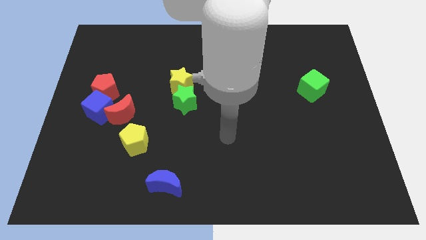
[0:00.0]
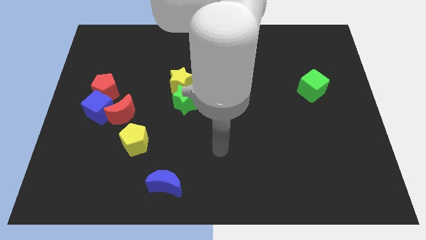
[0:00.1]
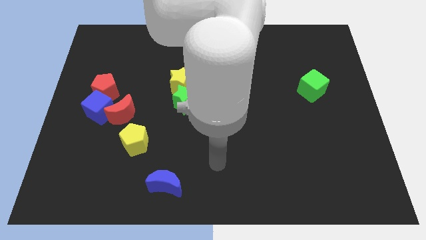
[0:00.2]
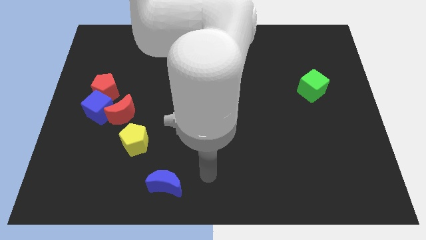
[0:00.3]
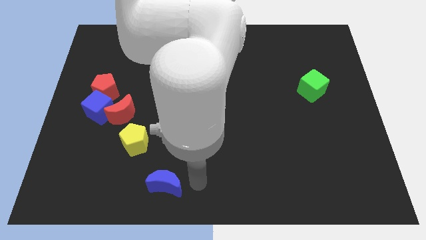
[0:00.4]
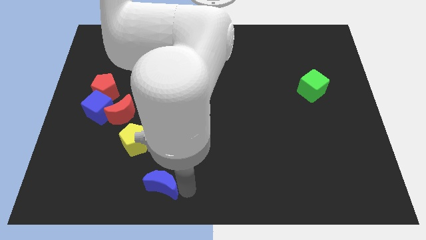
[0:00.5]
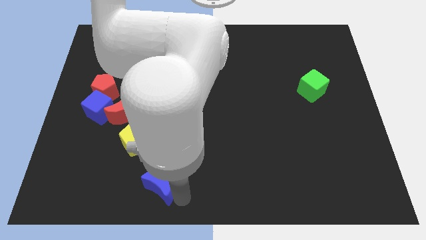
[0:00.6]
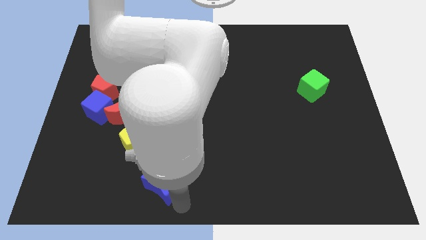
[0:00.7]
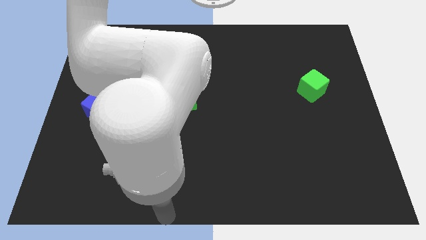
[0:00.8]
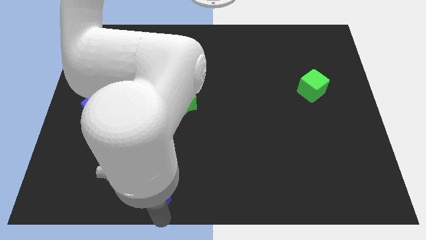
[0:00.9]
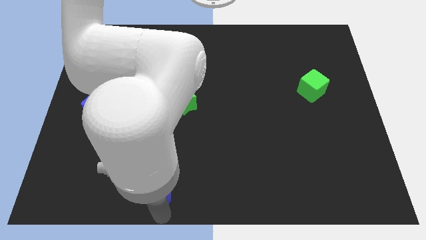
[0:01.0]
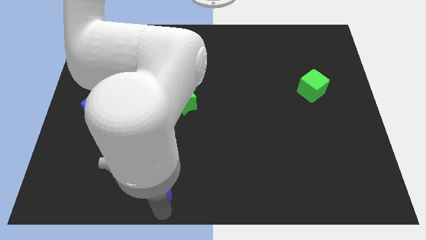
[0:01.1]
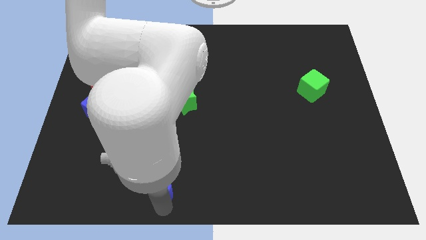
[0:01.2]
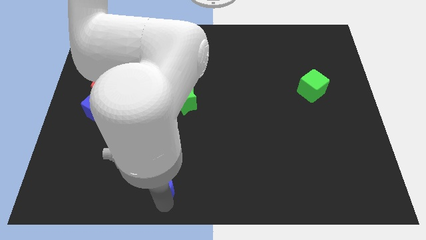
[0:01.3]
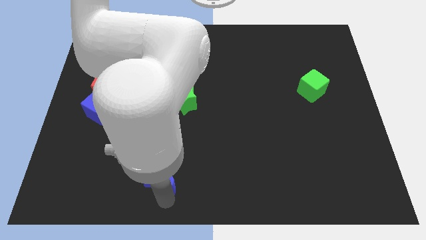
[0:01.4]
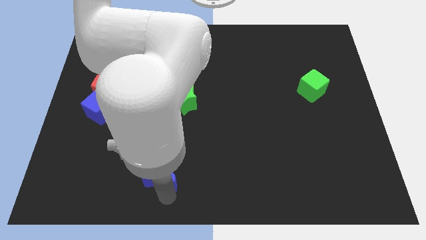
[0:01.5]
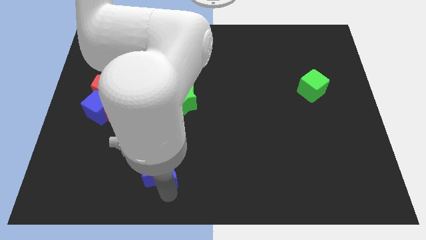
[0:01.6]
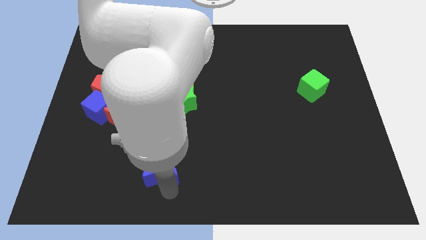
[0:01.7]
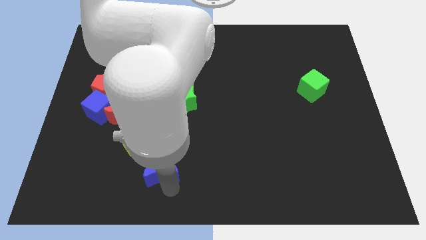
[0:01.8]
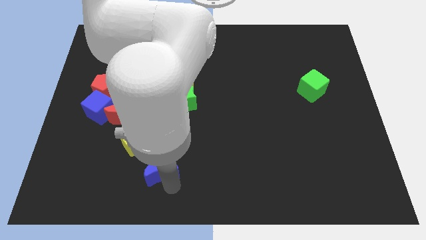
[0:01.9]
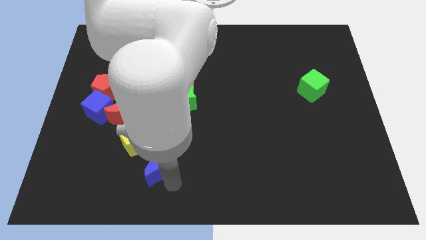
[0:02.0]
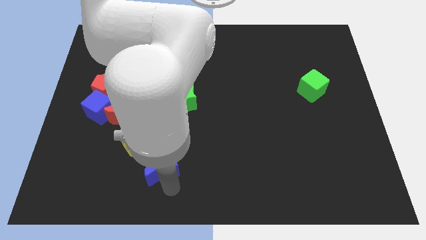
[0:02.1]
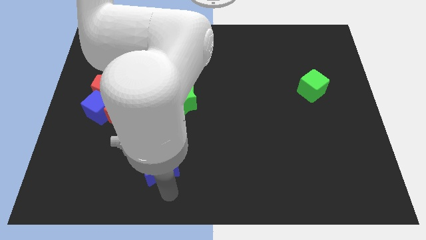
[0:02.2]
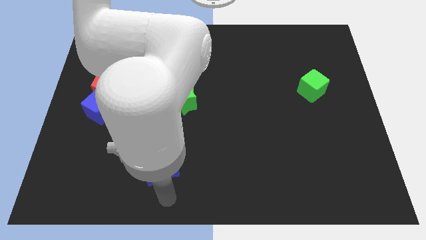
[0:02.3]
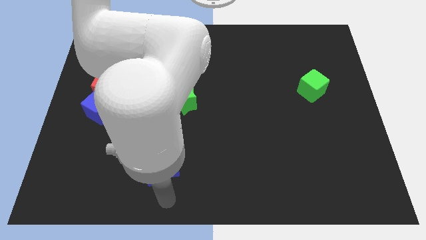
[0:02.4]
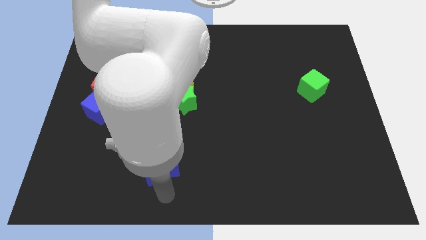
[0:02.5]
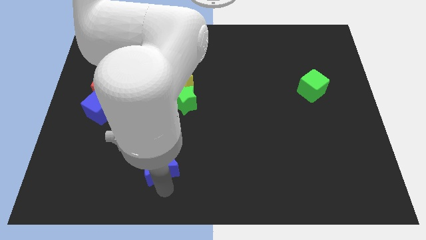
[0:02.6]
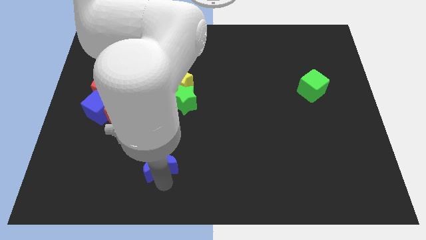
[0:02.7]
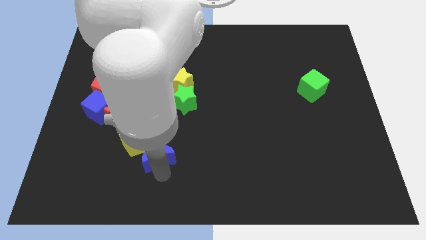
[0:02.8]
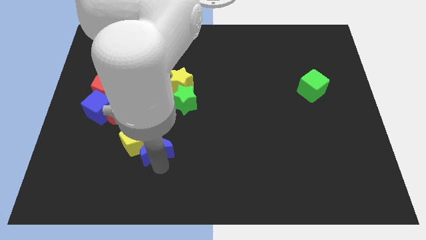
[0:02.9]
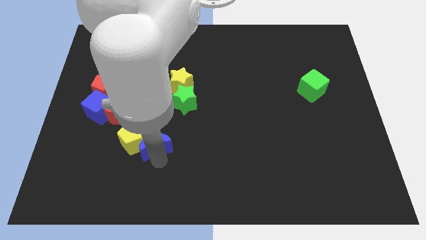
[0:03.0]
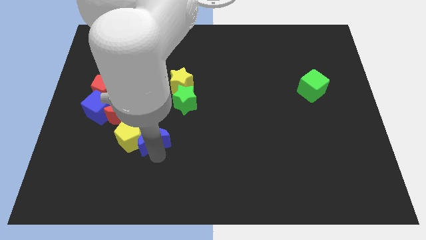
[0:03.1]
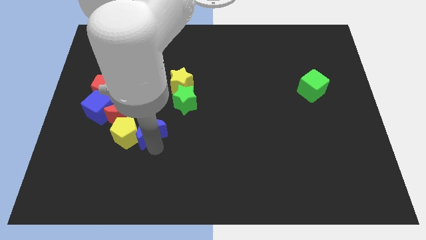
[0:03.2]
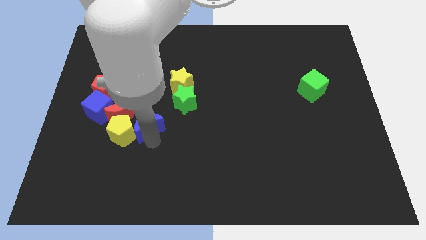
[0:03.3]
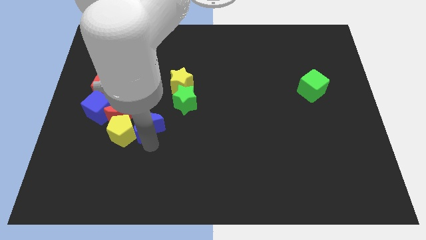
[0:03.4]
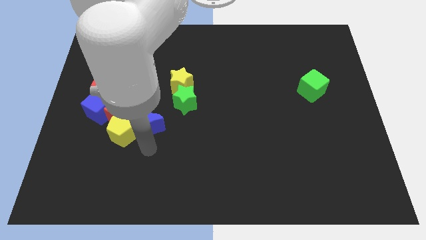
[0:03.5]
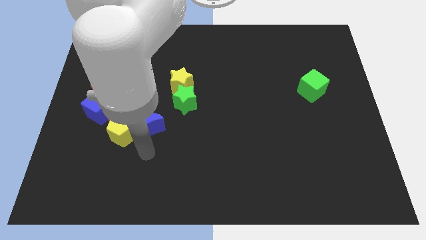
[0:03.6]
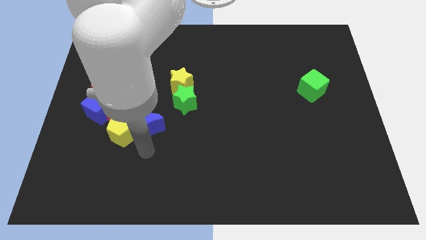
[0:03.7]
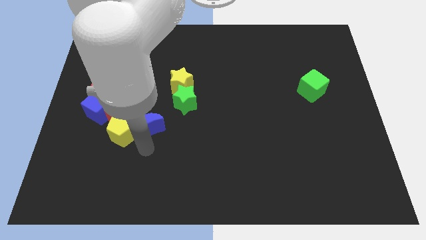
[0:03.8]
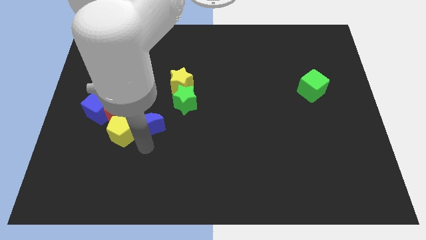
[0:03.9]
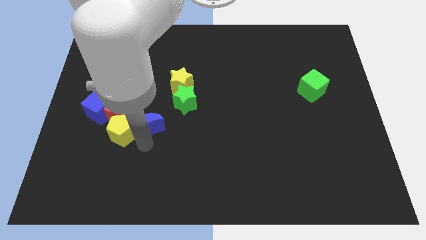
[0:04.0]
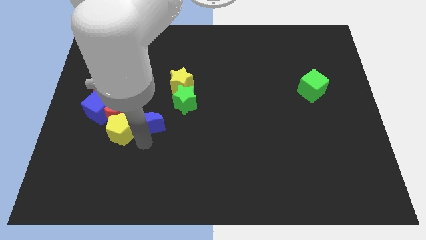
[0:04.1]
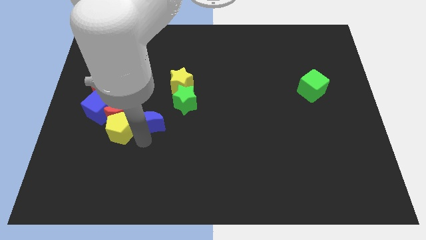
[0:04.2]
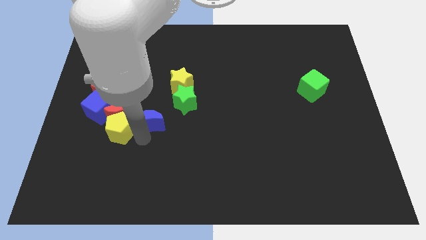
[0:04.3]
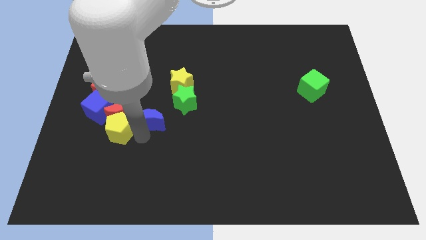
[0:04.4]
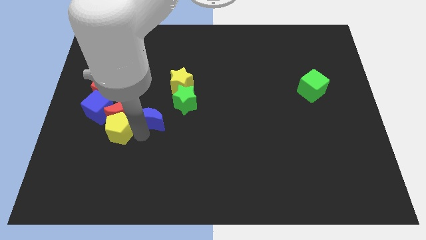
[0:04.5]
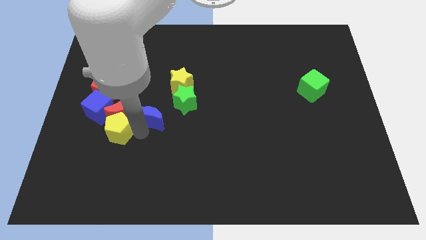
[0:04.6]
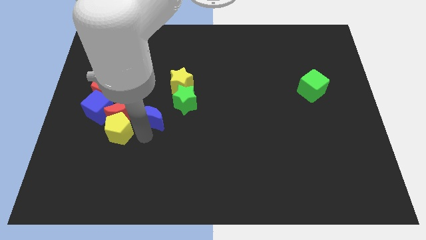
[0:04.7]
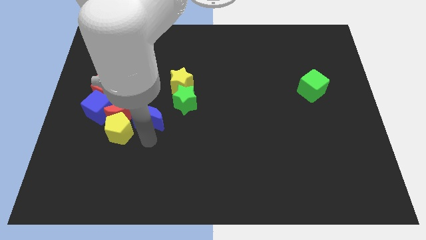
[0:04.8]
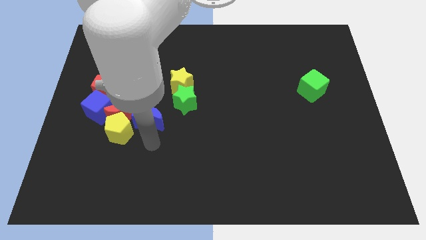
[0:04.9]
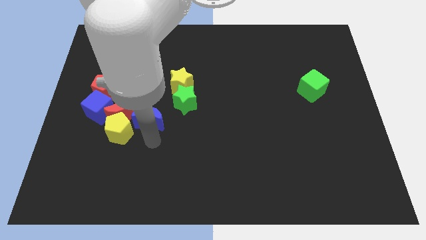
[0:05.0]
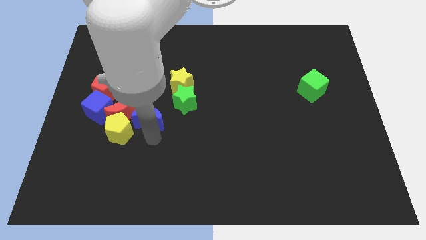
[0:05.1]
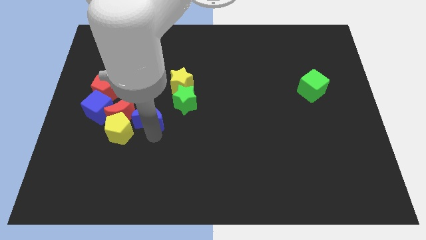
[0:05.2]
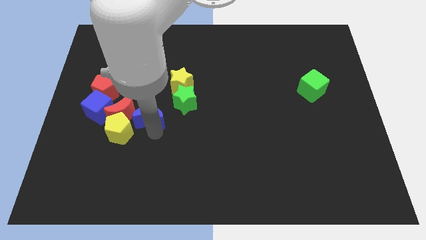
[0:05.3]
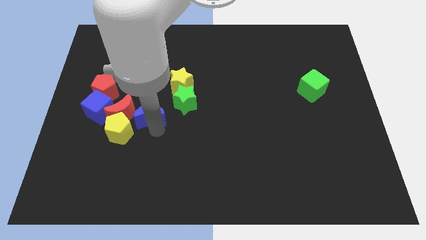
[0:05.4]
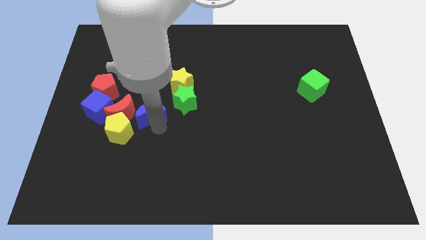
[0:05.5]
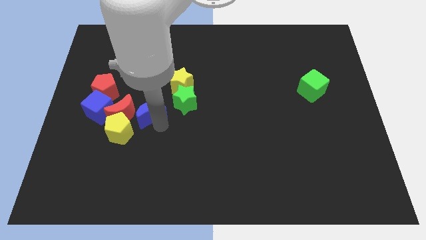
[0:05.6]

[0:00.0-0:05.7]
push the blue moon to the top right of the red moon

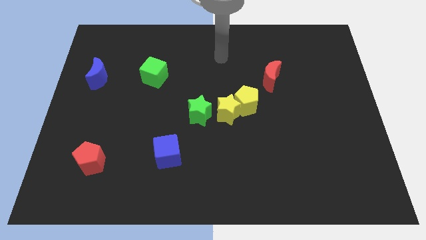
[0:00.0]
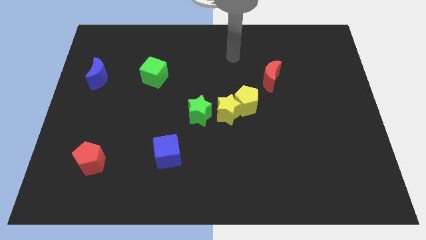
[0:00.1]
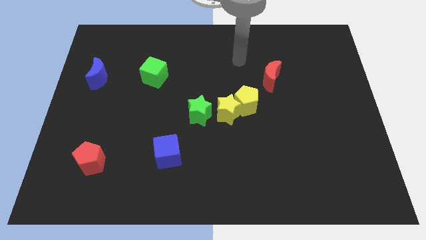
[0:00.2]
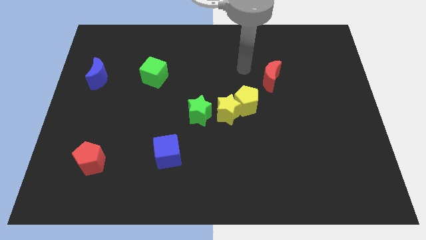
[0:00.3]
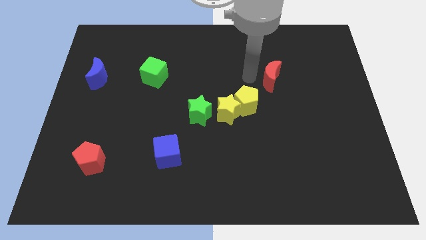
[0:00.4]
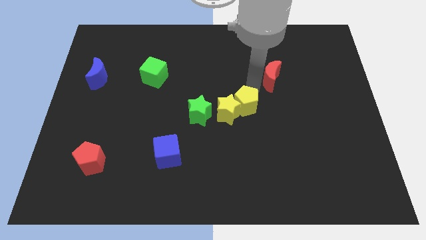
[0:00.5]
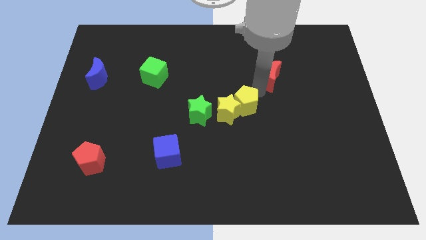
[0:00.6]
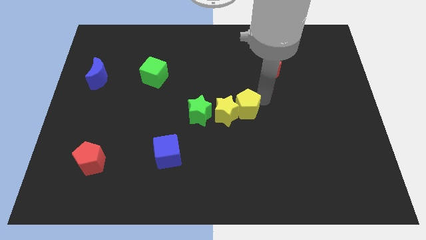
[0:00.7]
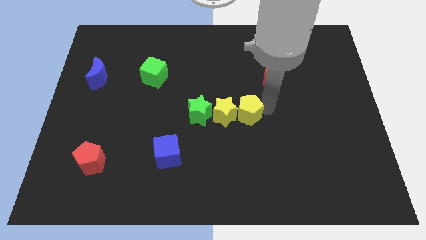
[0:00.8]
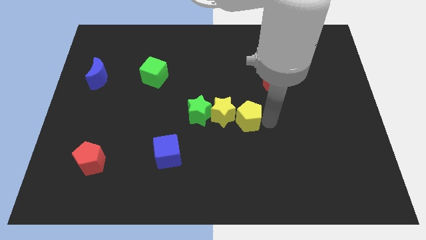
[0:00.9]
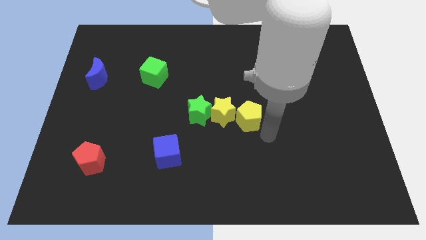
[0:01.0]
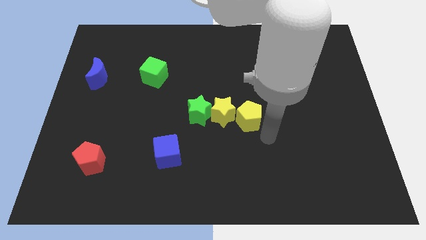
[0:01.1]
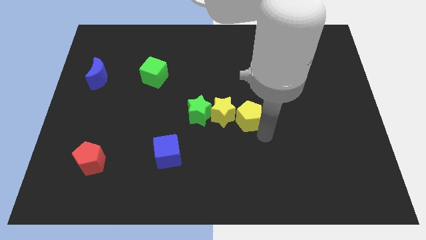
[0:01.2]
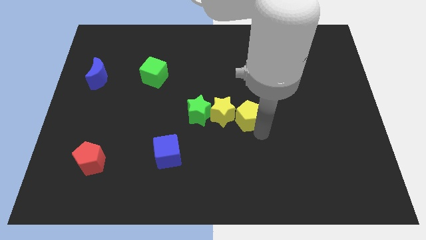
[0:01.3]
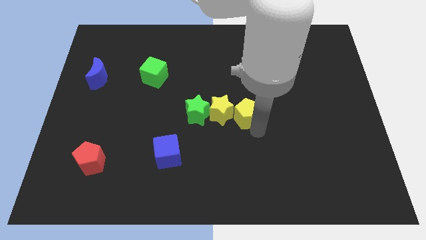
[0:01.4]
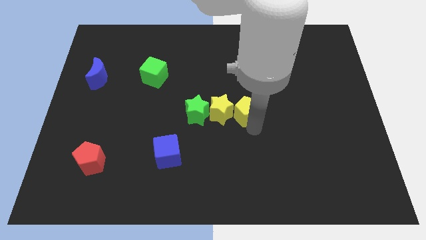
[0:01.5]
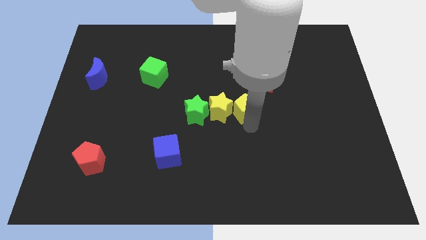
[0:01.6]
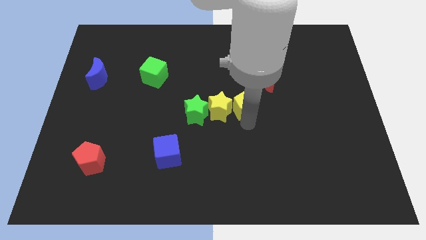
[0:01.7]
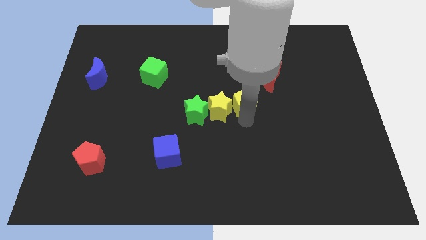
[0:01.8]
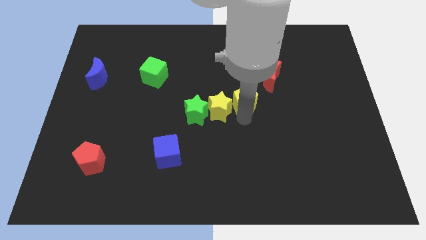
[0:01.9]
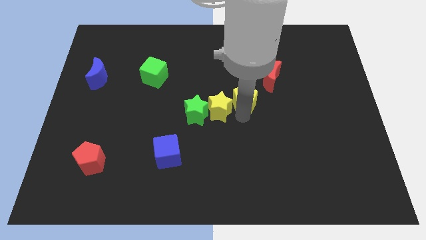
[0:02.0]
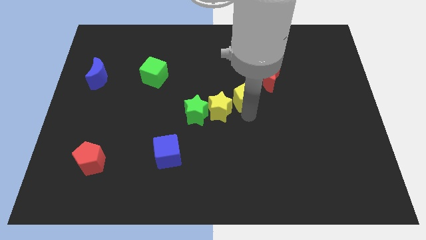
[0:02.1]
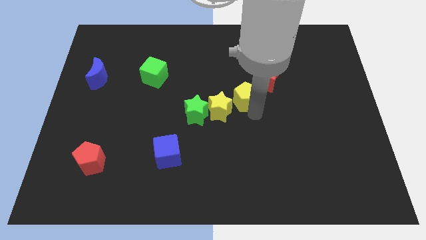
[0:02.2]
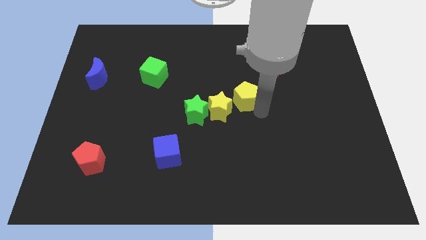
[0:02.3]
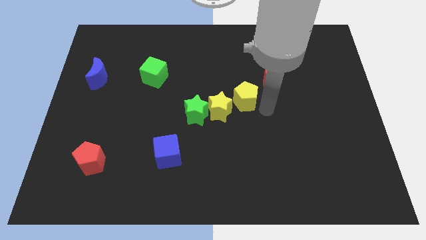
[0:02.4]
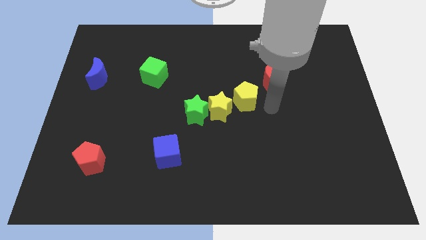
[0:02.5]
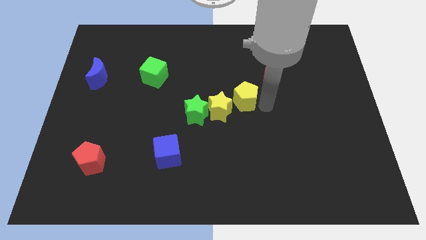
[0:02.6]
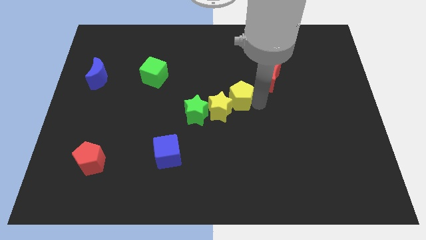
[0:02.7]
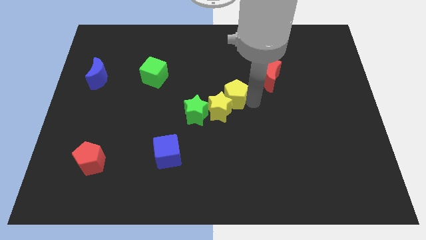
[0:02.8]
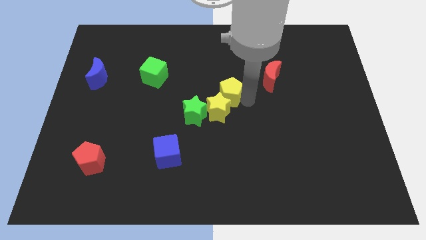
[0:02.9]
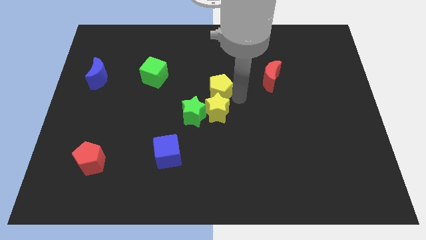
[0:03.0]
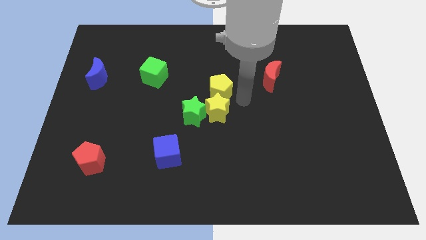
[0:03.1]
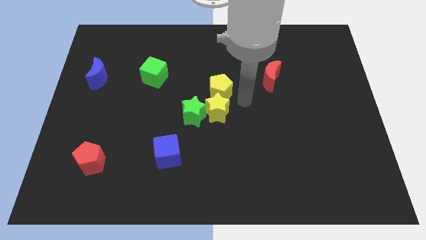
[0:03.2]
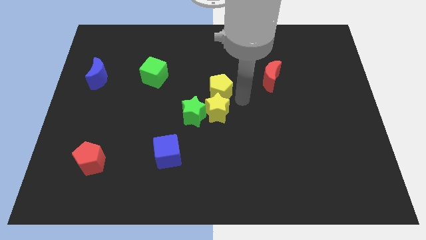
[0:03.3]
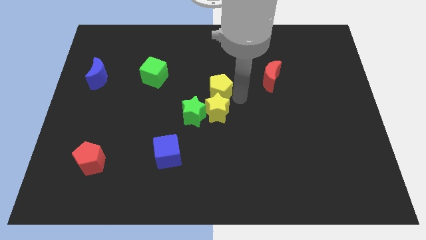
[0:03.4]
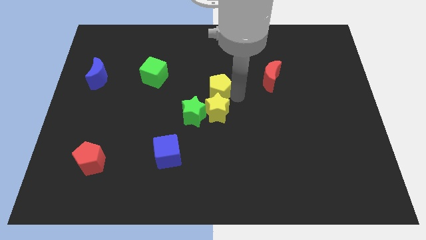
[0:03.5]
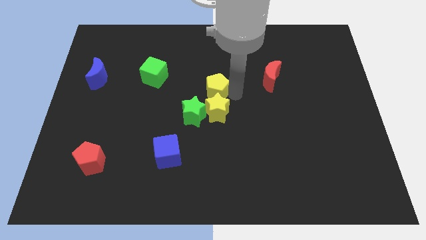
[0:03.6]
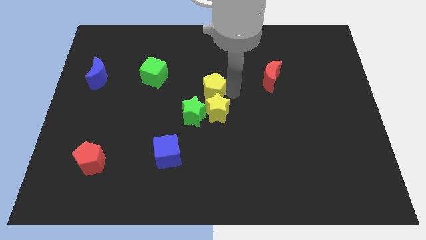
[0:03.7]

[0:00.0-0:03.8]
move the yellow pentagon to the top side of the green star
